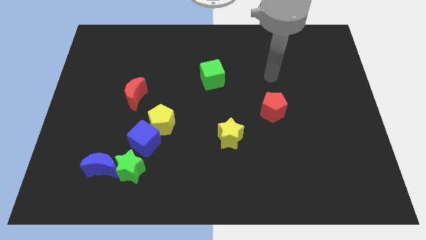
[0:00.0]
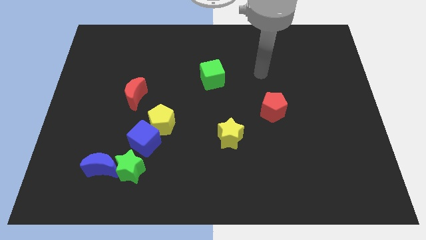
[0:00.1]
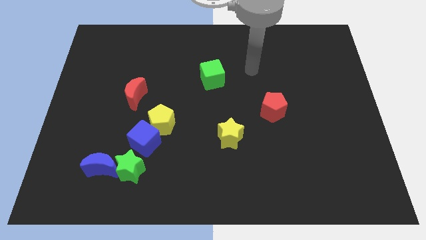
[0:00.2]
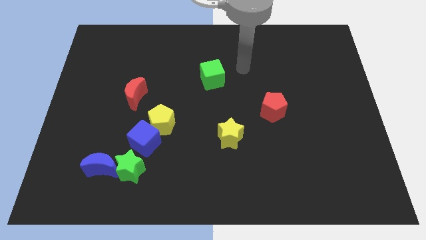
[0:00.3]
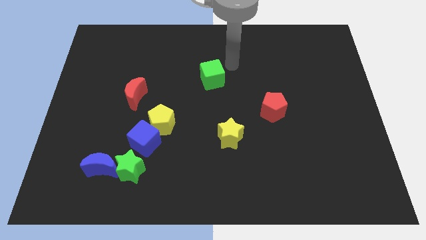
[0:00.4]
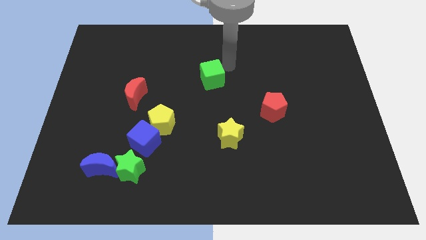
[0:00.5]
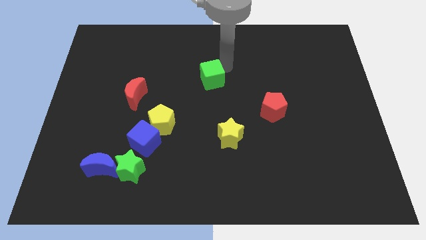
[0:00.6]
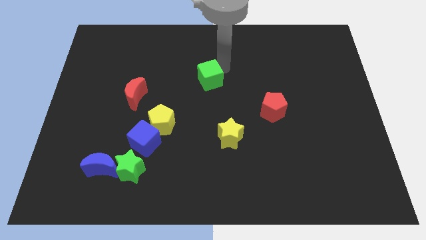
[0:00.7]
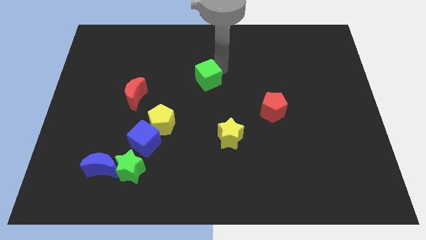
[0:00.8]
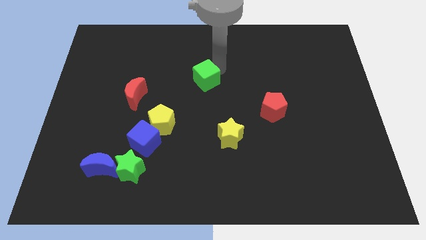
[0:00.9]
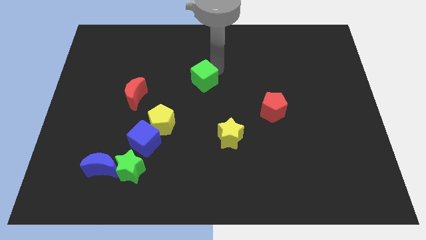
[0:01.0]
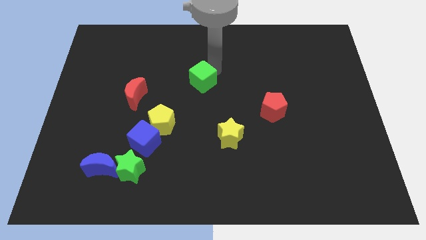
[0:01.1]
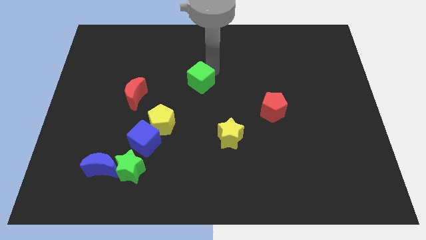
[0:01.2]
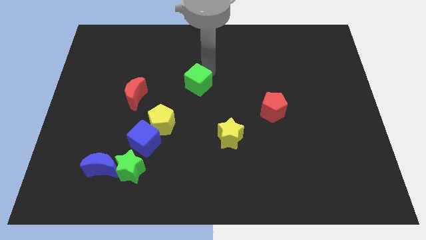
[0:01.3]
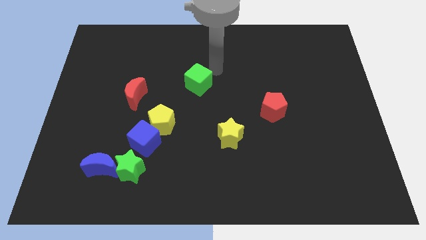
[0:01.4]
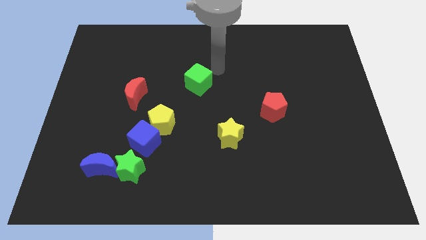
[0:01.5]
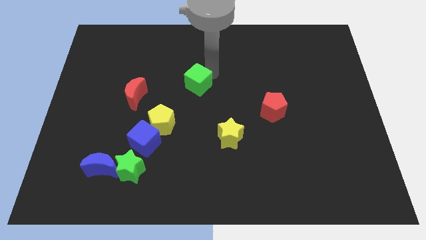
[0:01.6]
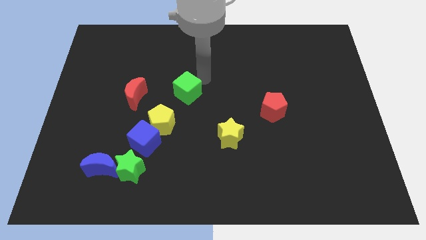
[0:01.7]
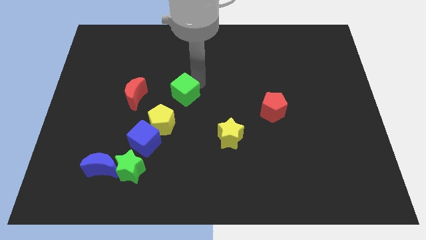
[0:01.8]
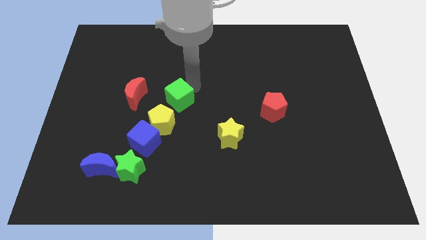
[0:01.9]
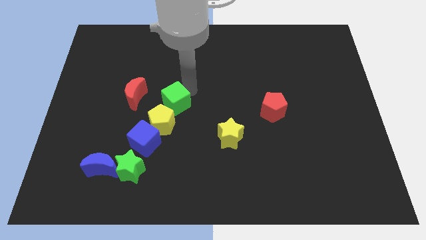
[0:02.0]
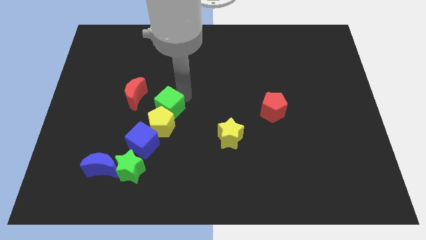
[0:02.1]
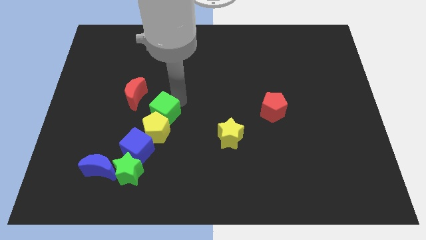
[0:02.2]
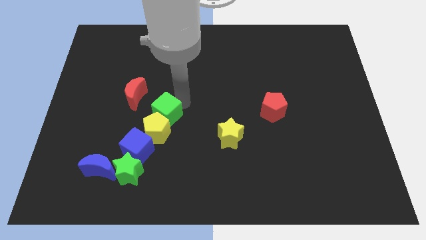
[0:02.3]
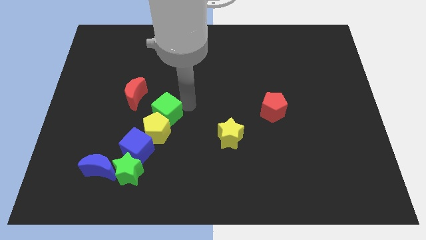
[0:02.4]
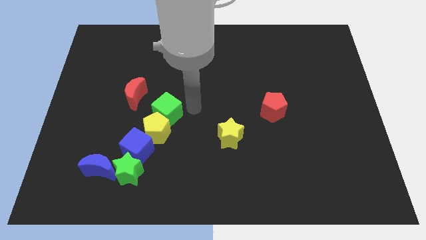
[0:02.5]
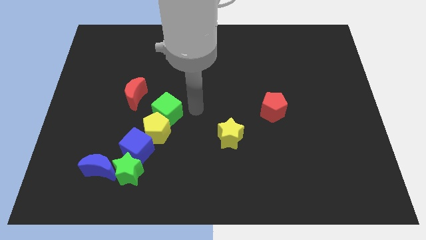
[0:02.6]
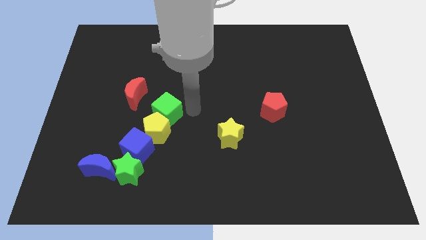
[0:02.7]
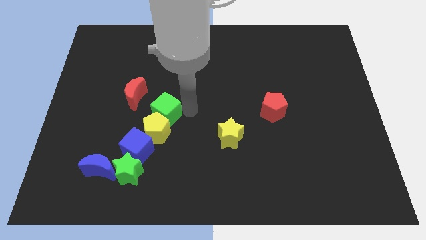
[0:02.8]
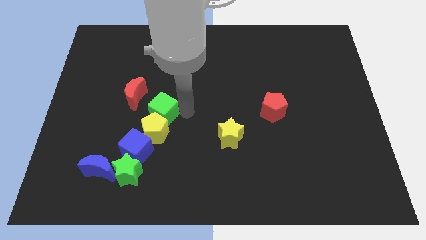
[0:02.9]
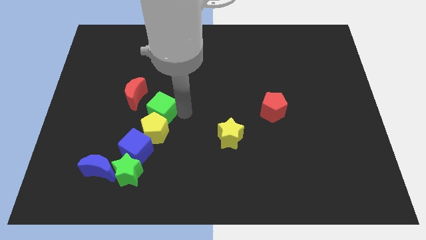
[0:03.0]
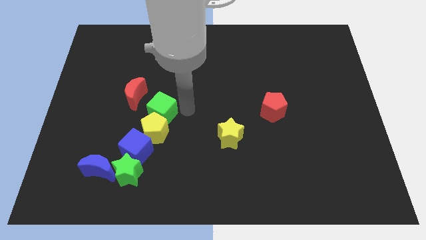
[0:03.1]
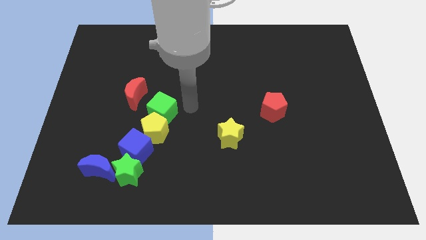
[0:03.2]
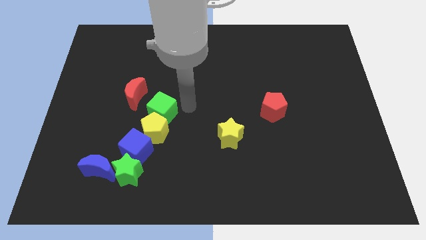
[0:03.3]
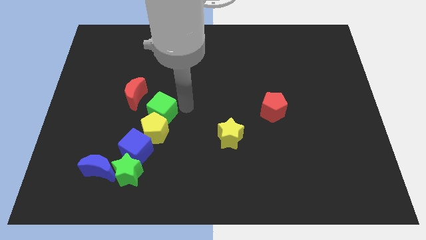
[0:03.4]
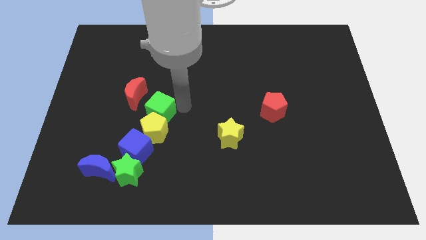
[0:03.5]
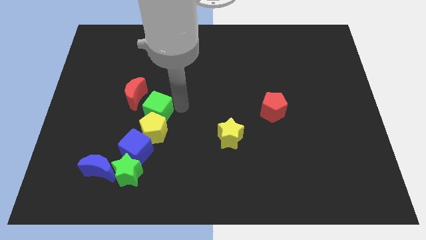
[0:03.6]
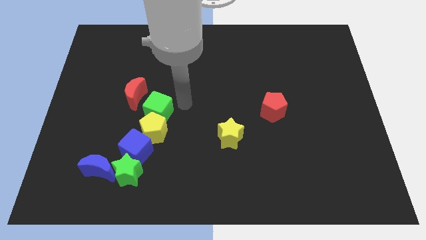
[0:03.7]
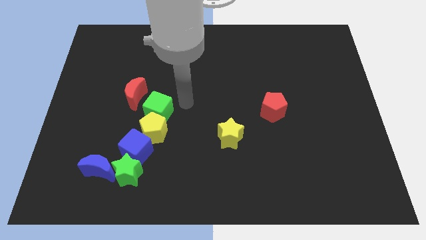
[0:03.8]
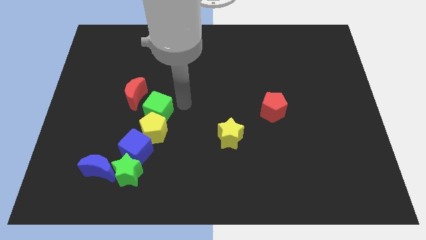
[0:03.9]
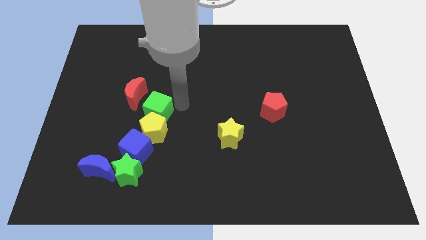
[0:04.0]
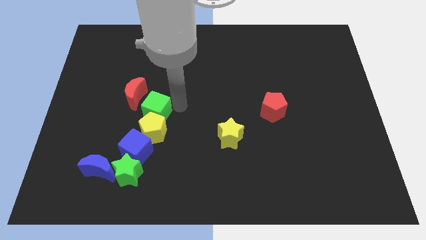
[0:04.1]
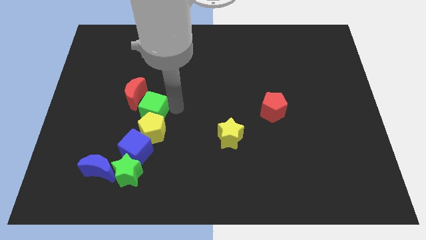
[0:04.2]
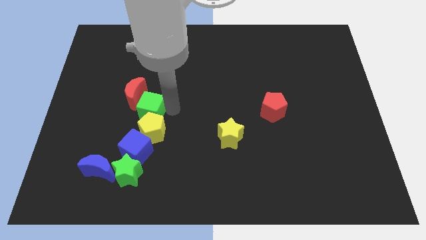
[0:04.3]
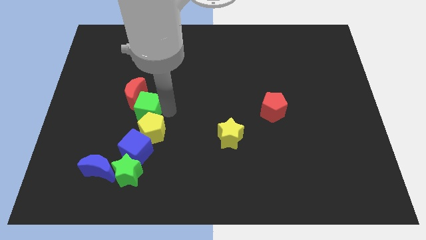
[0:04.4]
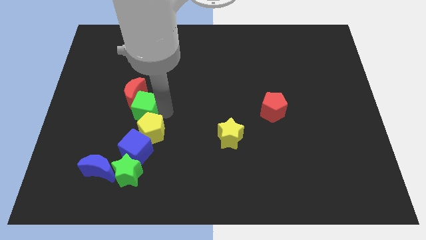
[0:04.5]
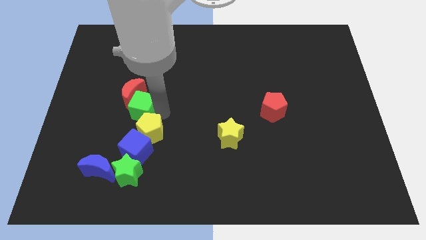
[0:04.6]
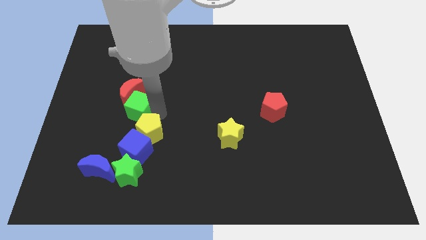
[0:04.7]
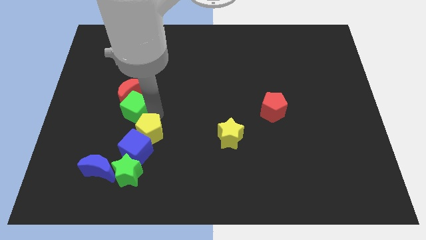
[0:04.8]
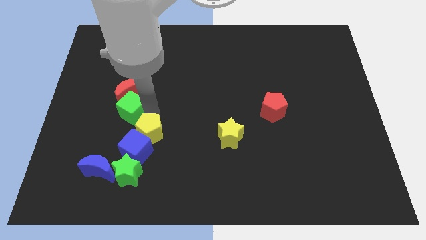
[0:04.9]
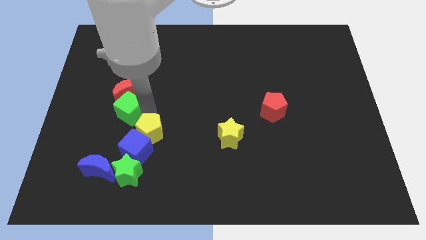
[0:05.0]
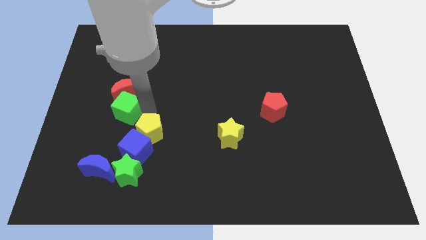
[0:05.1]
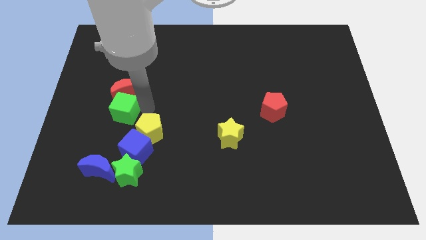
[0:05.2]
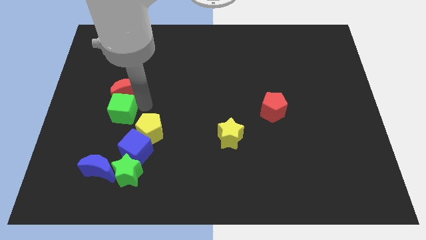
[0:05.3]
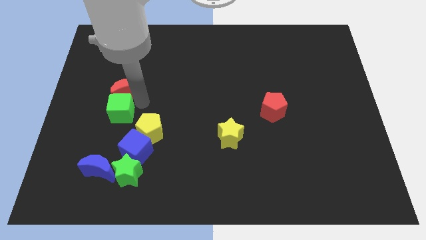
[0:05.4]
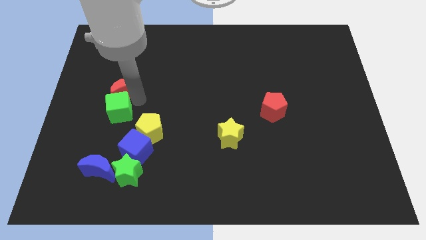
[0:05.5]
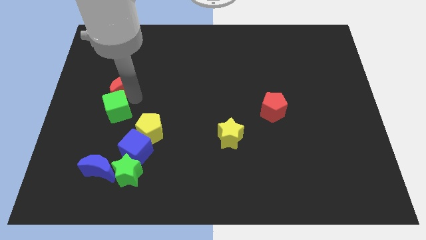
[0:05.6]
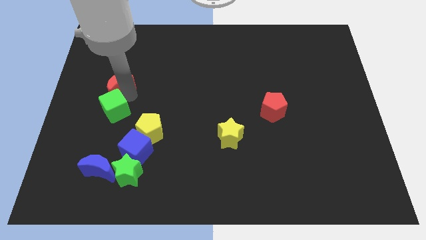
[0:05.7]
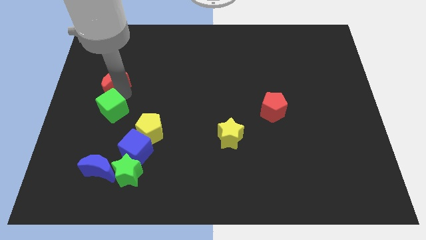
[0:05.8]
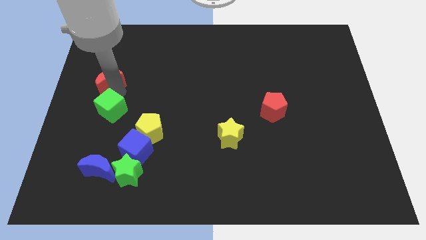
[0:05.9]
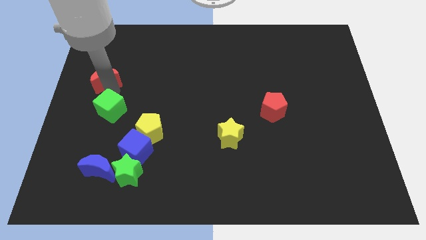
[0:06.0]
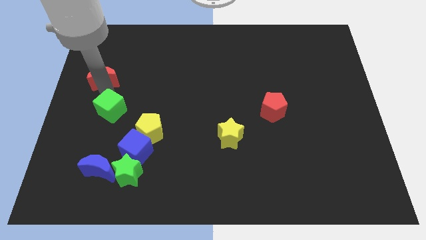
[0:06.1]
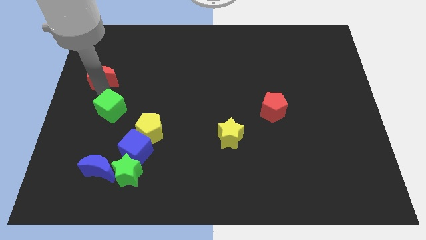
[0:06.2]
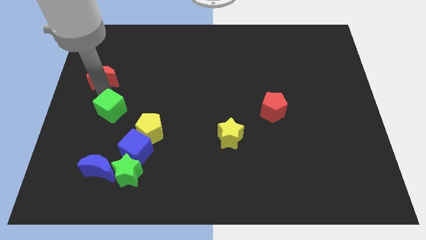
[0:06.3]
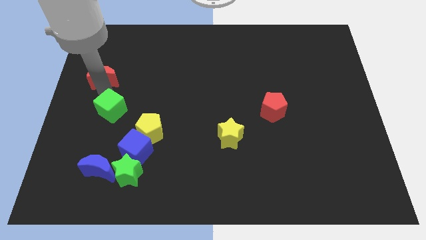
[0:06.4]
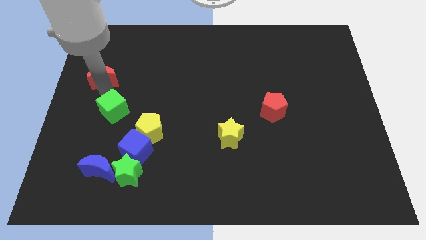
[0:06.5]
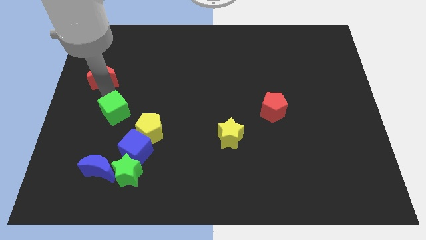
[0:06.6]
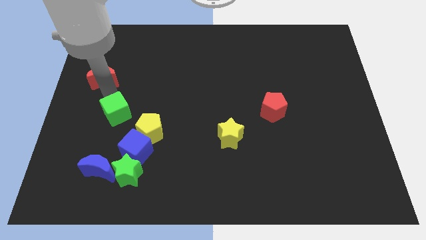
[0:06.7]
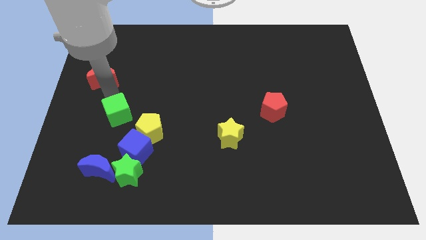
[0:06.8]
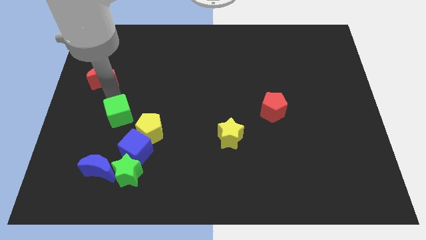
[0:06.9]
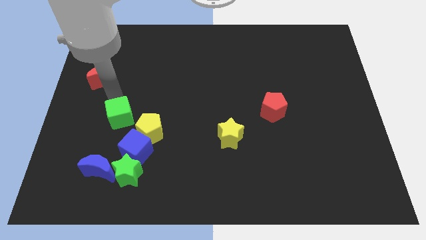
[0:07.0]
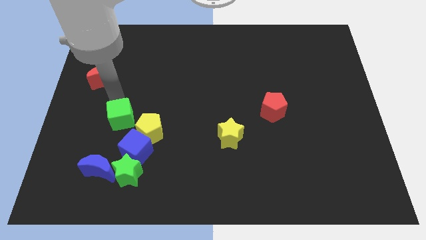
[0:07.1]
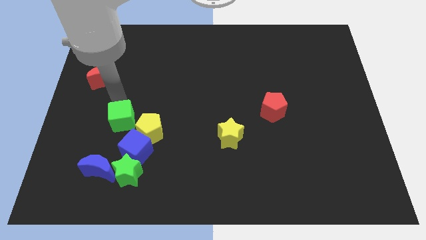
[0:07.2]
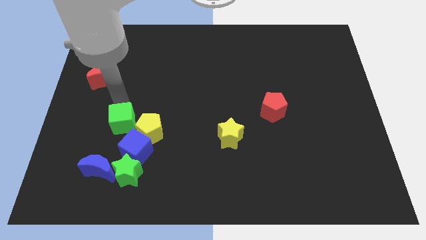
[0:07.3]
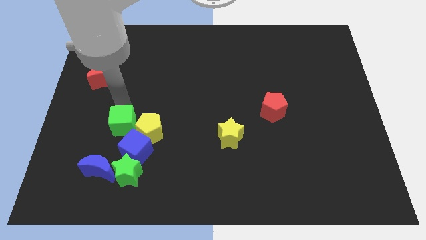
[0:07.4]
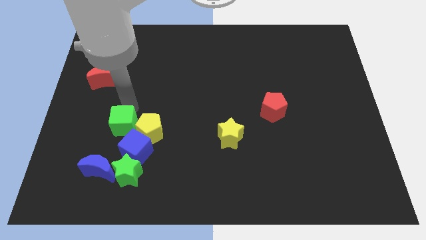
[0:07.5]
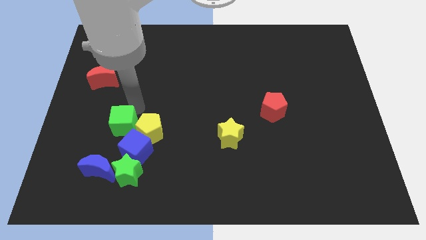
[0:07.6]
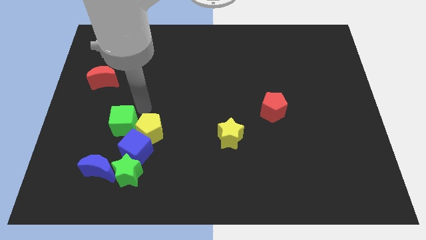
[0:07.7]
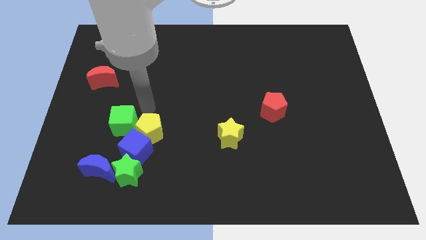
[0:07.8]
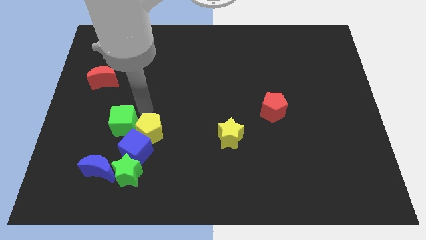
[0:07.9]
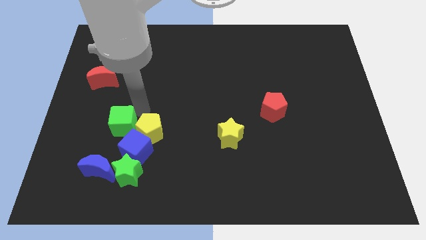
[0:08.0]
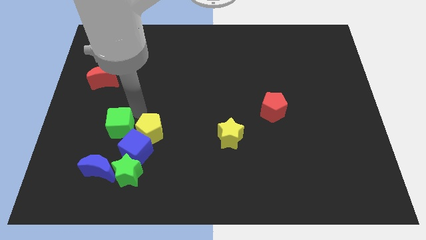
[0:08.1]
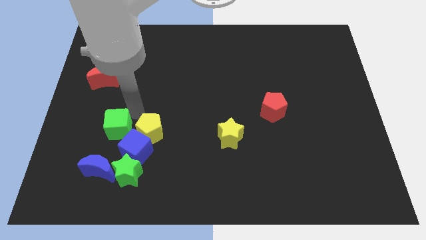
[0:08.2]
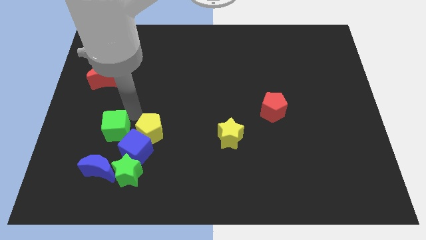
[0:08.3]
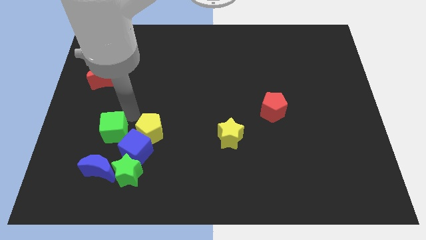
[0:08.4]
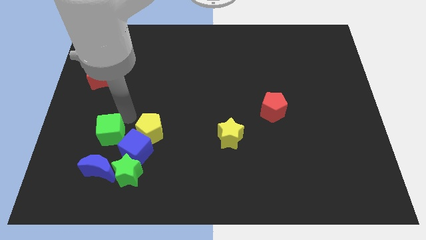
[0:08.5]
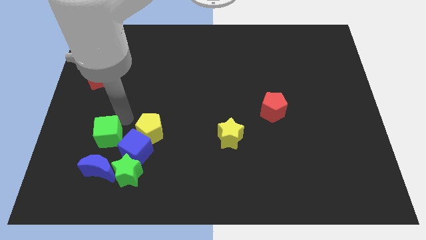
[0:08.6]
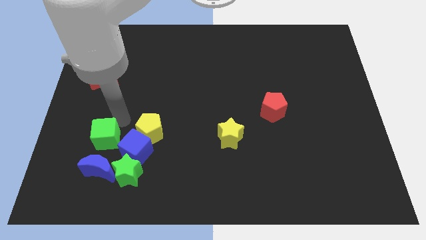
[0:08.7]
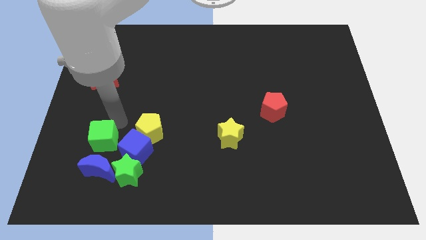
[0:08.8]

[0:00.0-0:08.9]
put the green cube diagonally up and to the left of the blue moon
